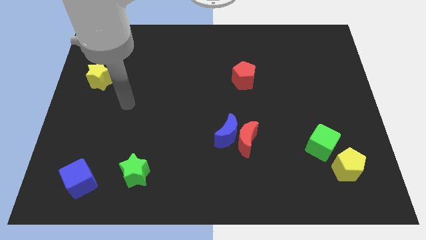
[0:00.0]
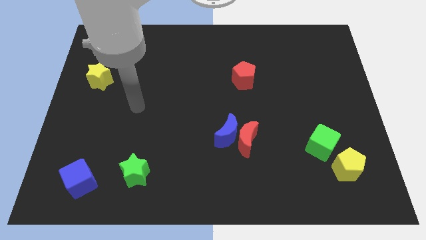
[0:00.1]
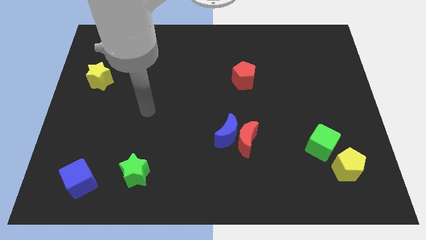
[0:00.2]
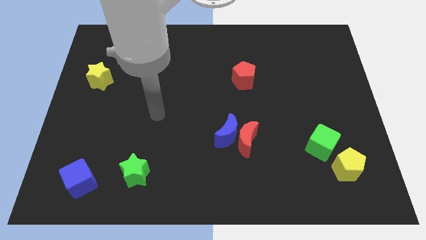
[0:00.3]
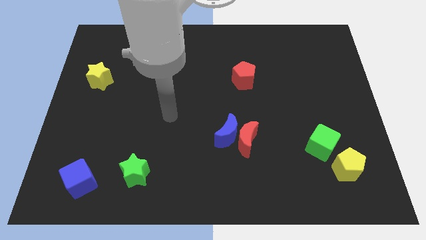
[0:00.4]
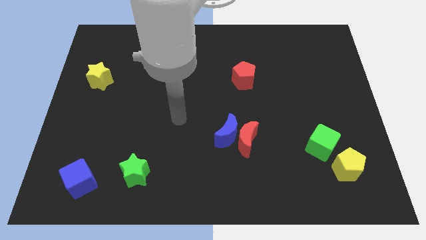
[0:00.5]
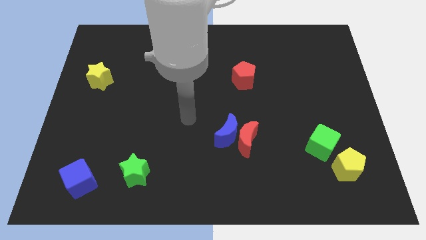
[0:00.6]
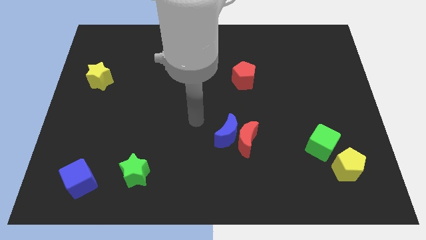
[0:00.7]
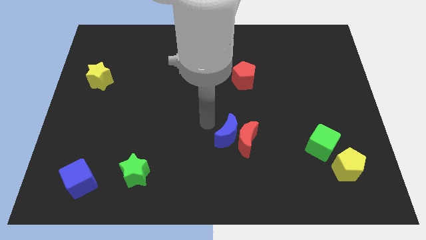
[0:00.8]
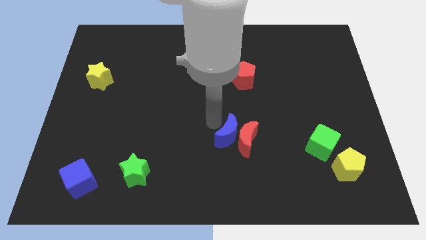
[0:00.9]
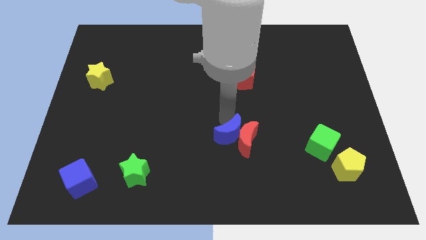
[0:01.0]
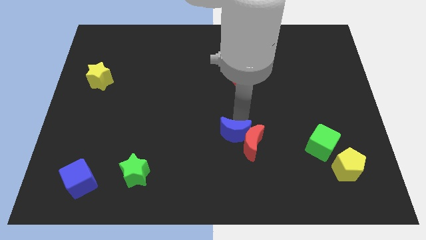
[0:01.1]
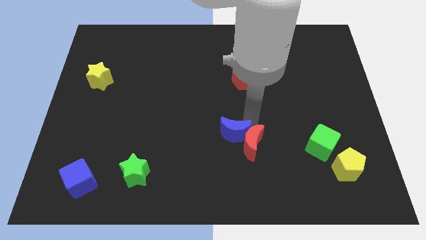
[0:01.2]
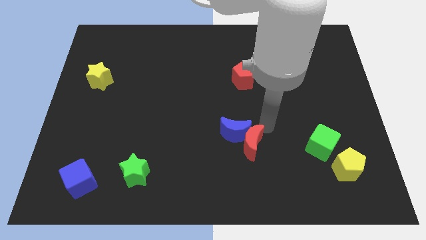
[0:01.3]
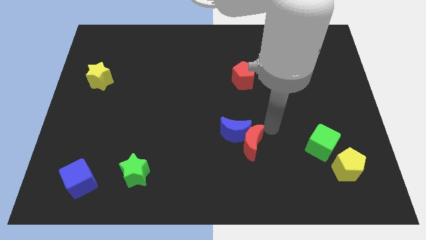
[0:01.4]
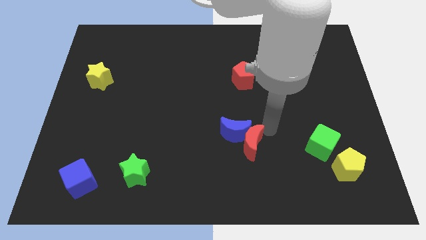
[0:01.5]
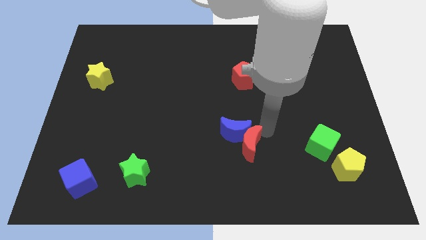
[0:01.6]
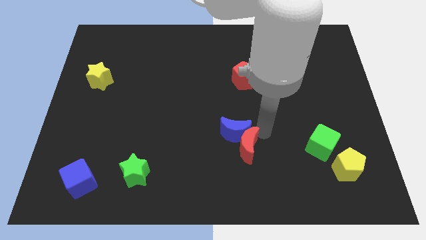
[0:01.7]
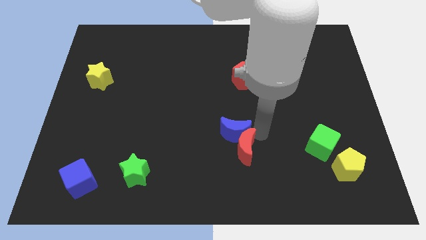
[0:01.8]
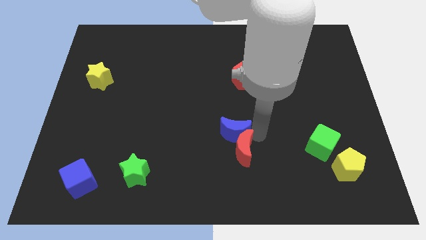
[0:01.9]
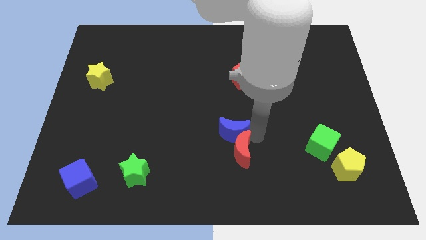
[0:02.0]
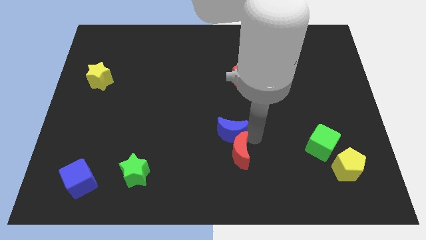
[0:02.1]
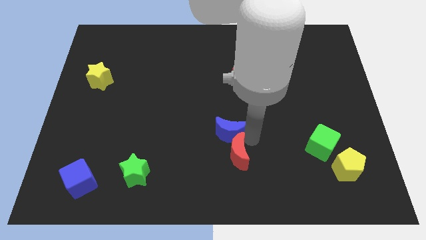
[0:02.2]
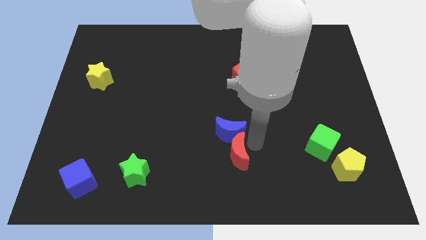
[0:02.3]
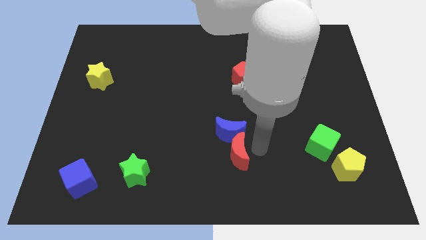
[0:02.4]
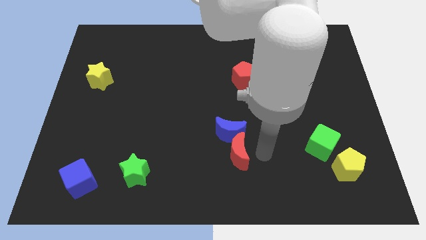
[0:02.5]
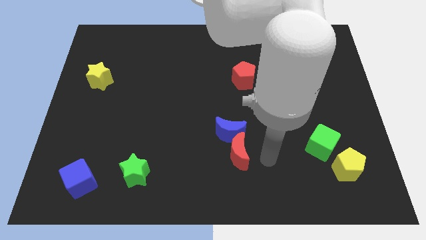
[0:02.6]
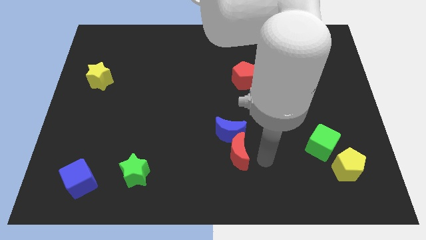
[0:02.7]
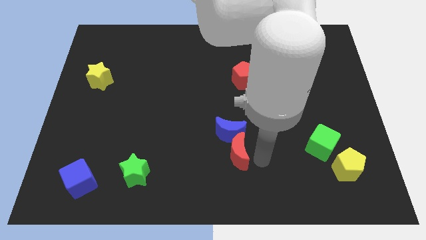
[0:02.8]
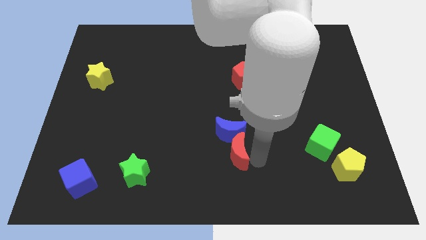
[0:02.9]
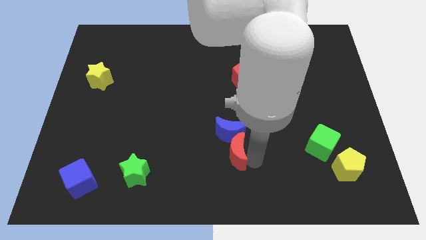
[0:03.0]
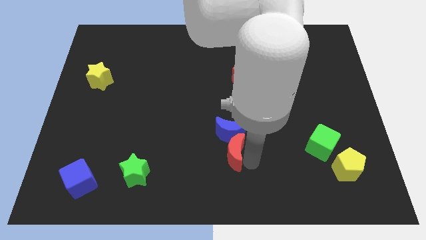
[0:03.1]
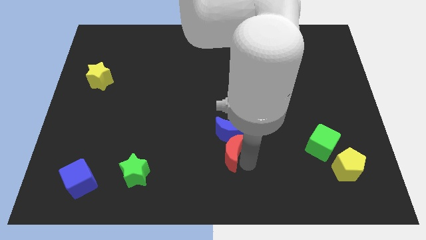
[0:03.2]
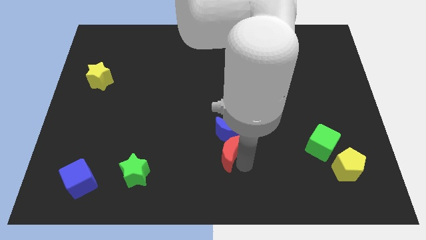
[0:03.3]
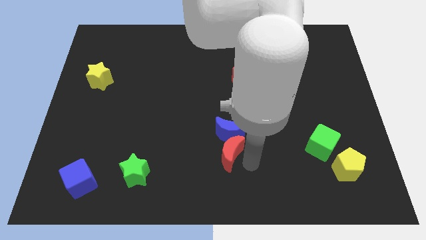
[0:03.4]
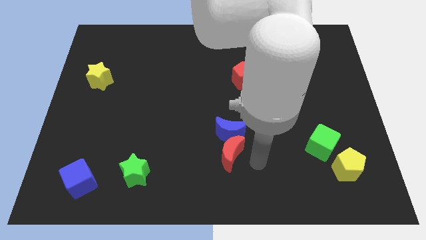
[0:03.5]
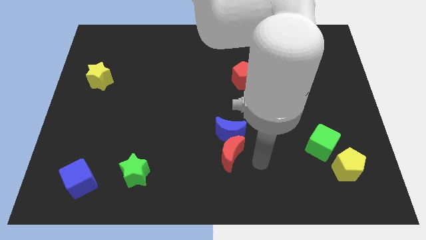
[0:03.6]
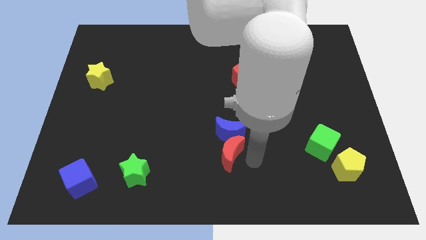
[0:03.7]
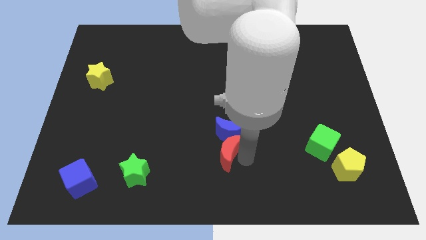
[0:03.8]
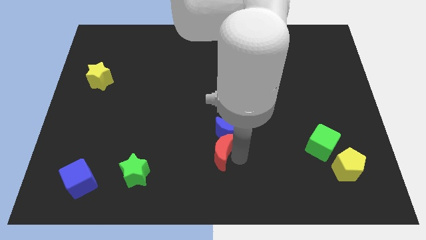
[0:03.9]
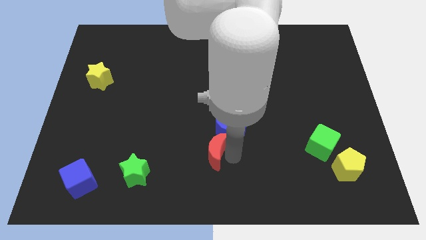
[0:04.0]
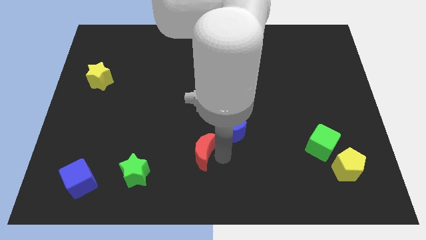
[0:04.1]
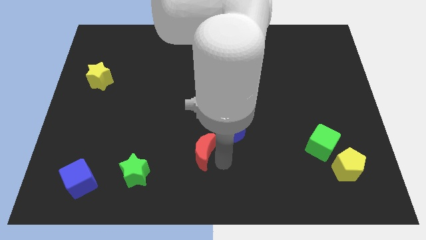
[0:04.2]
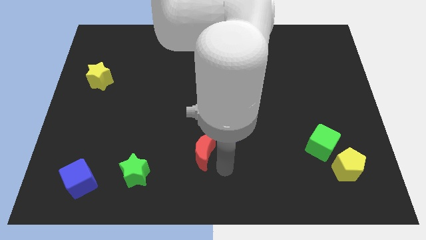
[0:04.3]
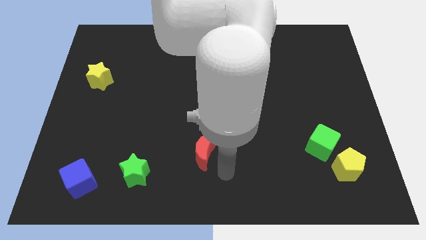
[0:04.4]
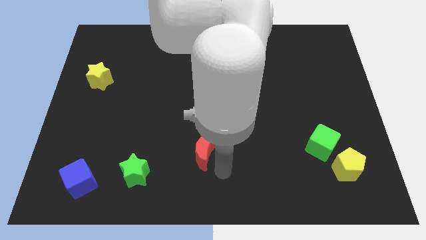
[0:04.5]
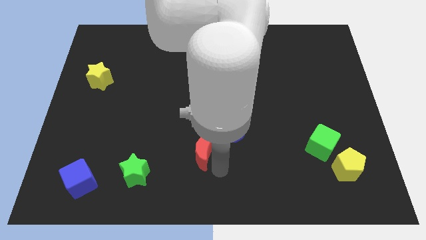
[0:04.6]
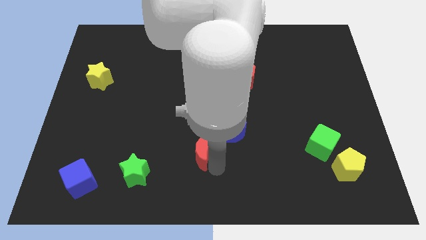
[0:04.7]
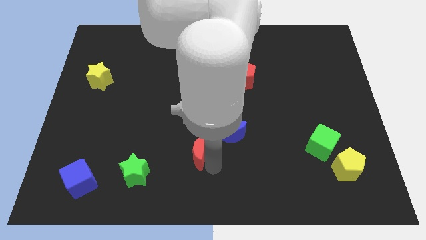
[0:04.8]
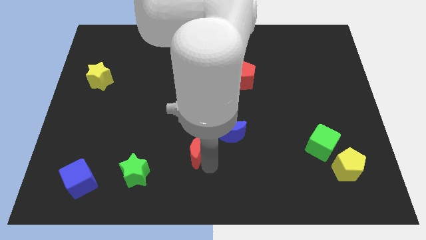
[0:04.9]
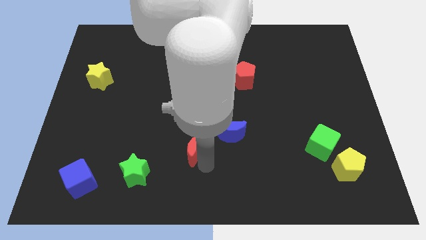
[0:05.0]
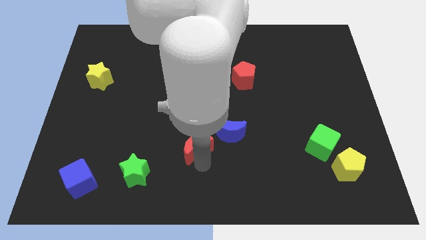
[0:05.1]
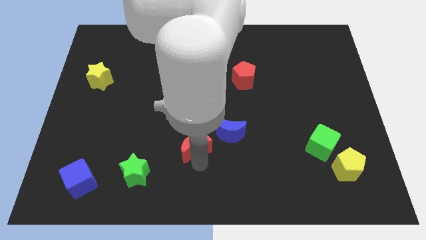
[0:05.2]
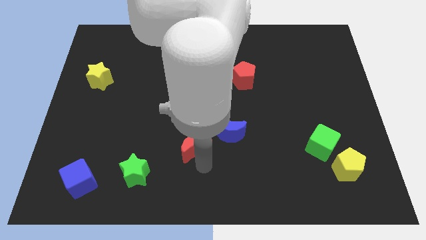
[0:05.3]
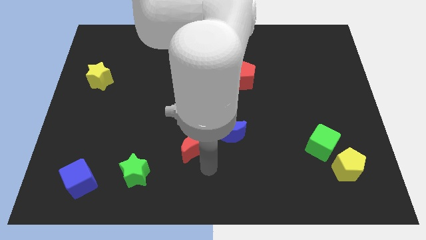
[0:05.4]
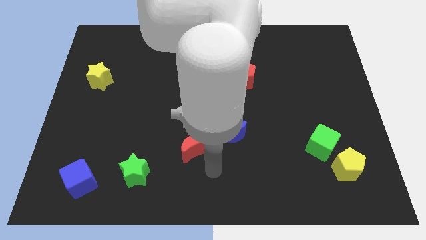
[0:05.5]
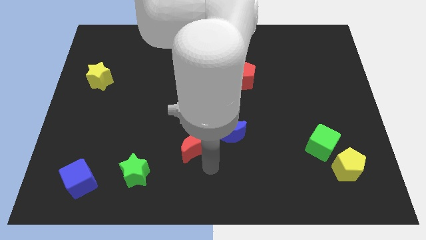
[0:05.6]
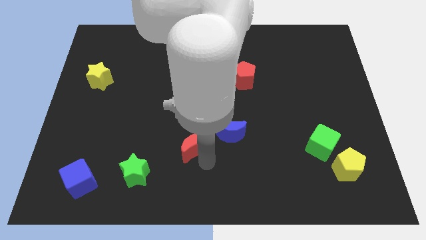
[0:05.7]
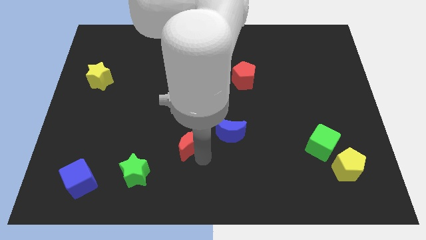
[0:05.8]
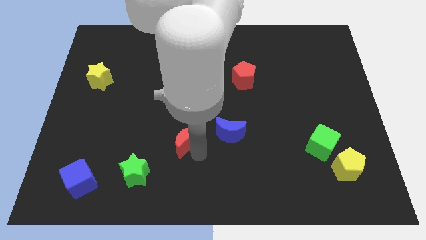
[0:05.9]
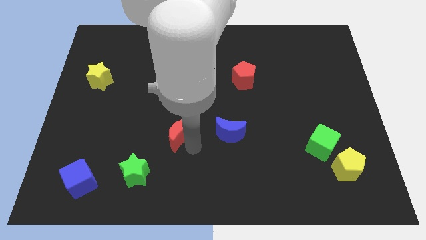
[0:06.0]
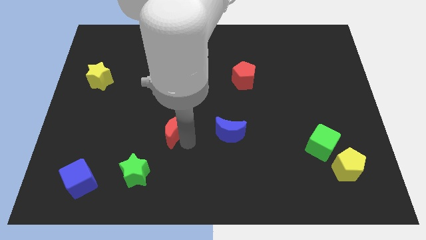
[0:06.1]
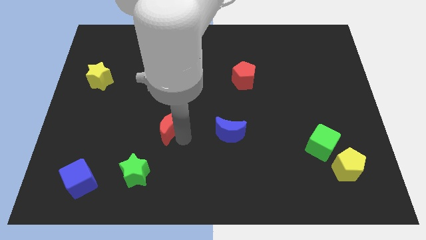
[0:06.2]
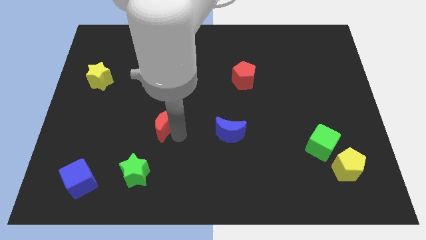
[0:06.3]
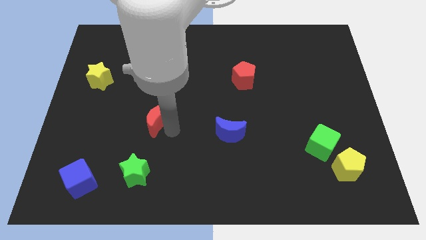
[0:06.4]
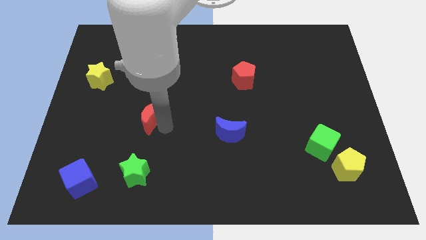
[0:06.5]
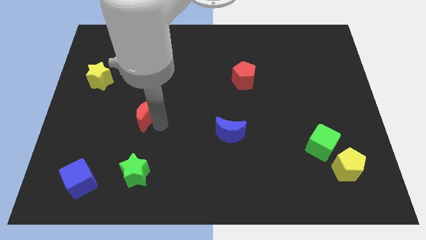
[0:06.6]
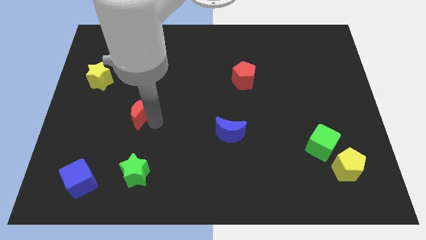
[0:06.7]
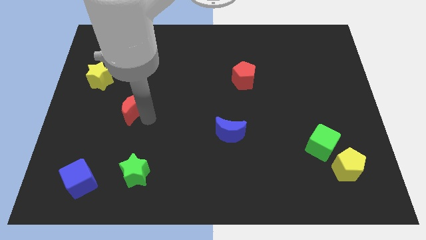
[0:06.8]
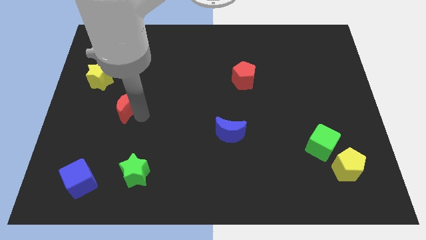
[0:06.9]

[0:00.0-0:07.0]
put the red moon diagonally down and to the right of the yellow star
